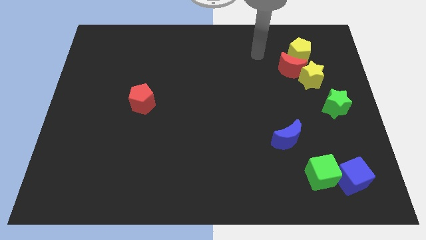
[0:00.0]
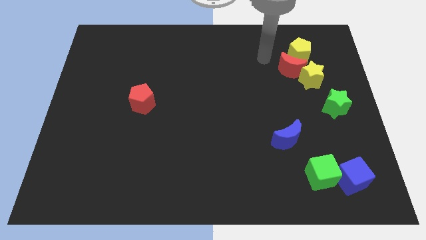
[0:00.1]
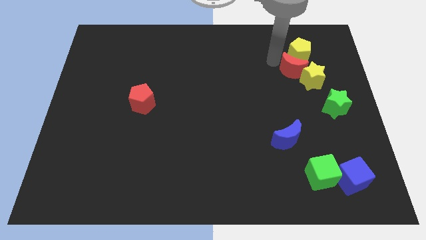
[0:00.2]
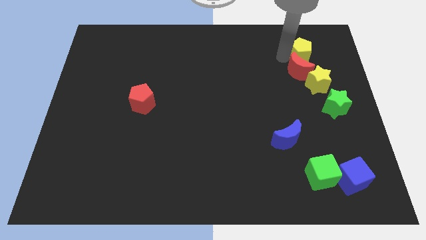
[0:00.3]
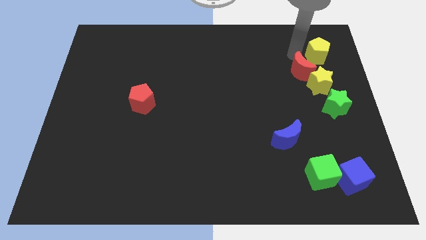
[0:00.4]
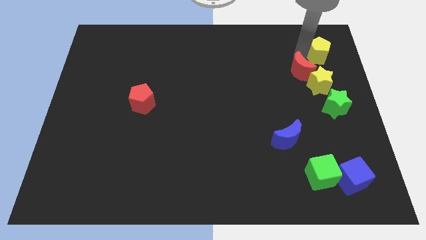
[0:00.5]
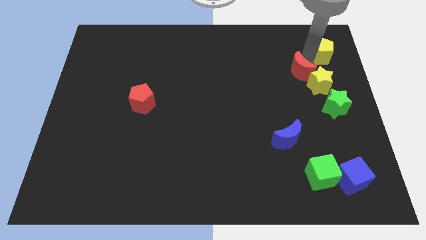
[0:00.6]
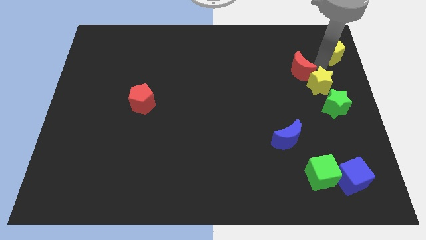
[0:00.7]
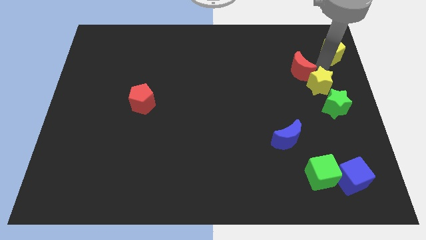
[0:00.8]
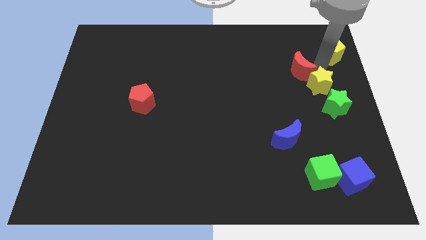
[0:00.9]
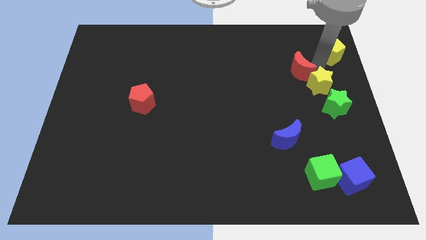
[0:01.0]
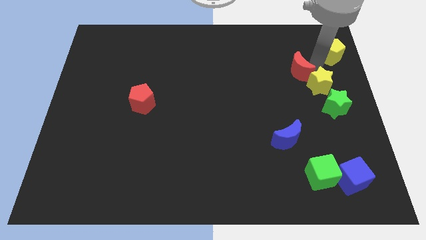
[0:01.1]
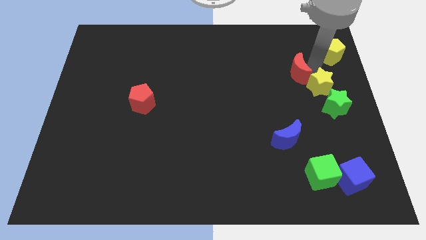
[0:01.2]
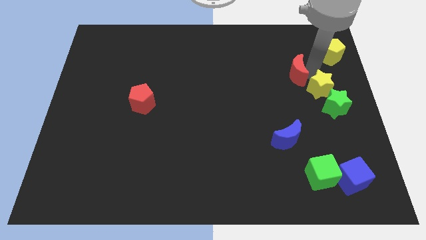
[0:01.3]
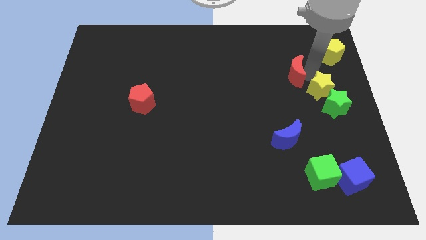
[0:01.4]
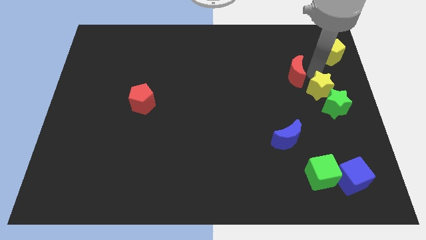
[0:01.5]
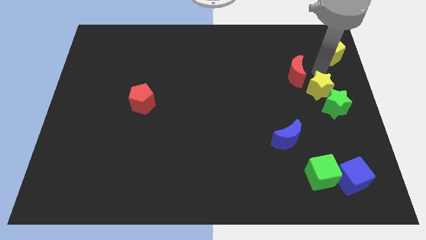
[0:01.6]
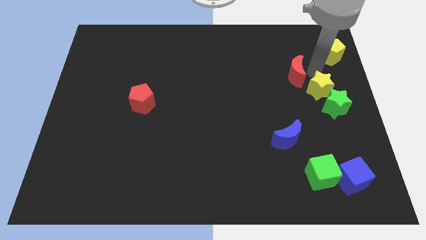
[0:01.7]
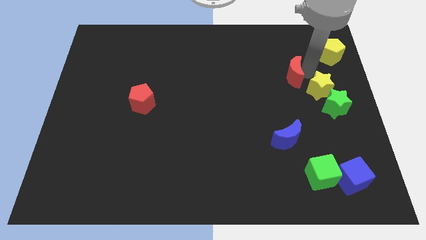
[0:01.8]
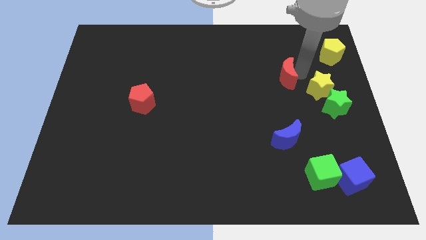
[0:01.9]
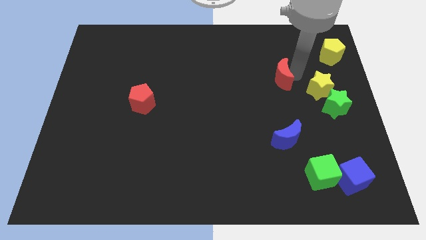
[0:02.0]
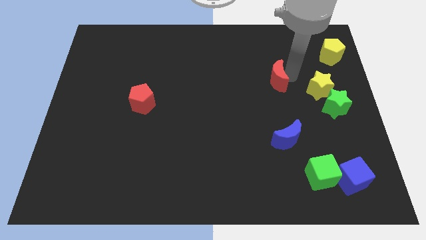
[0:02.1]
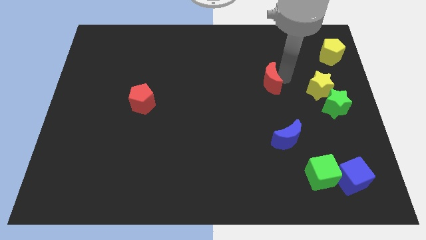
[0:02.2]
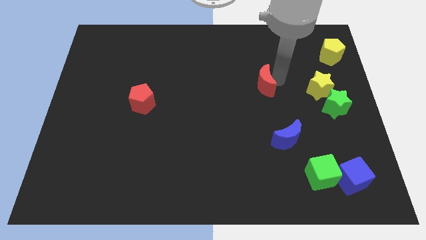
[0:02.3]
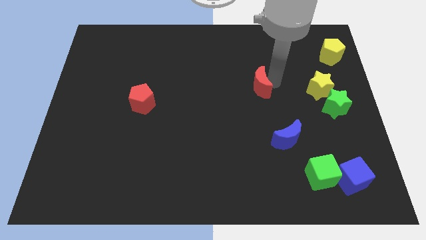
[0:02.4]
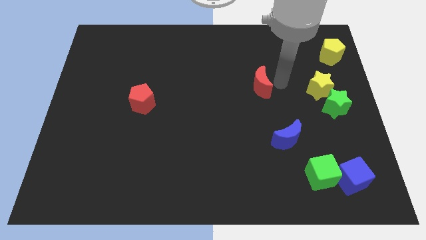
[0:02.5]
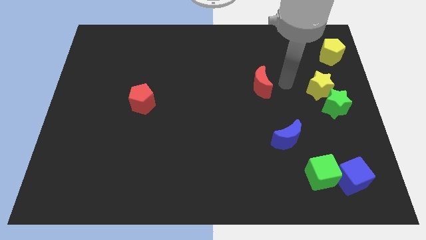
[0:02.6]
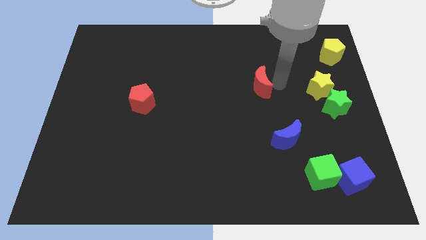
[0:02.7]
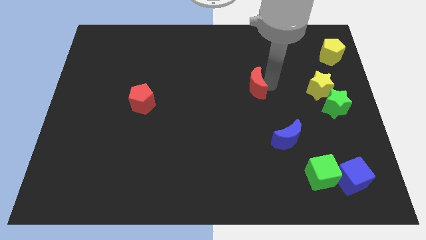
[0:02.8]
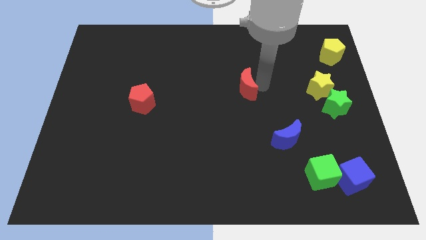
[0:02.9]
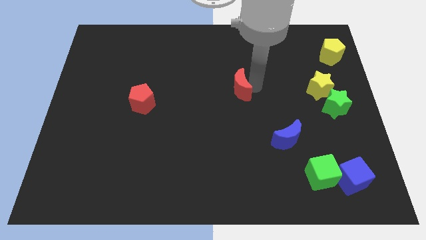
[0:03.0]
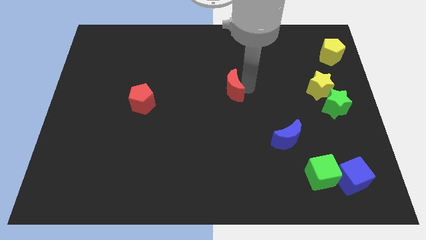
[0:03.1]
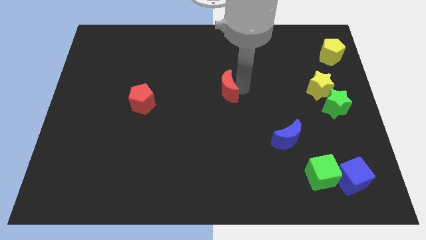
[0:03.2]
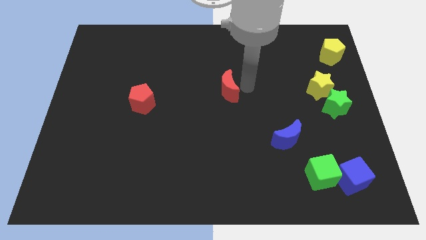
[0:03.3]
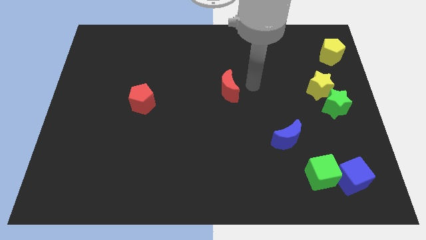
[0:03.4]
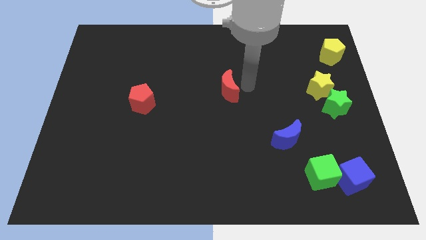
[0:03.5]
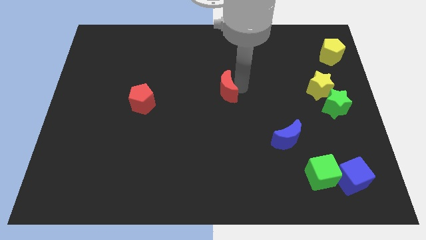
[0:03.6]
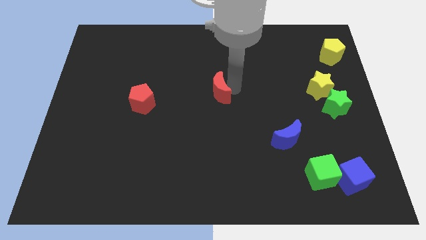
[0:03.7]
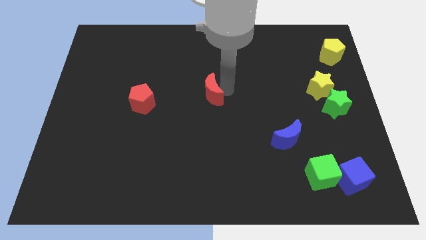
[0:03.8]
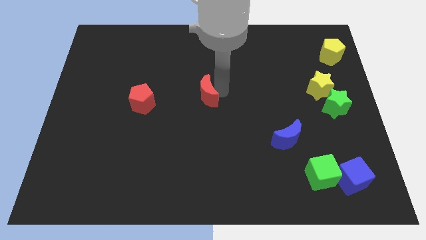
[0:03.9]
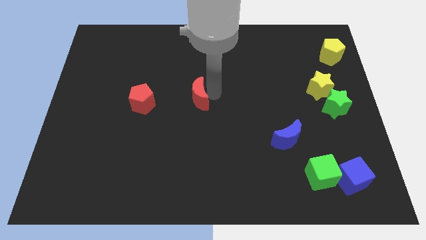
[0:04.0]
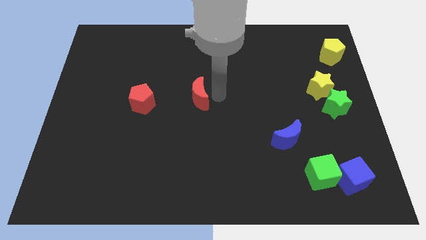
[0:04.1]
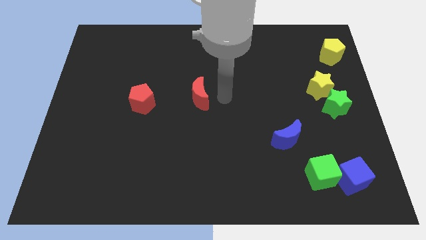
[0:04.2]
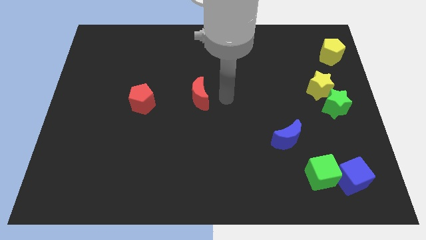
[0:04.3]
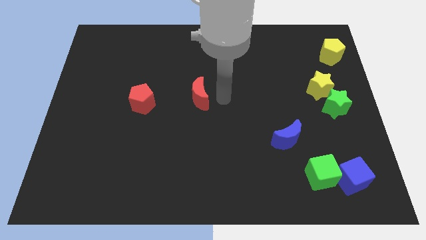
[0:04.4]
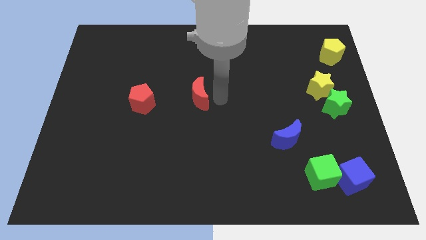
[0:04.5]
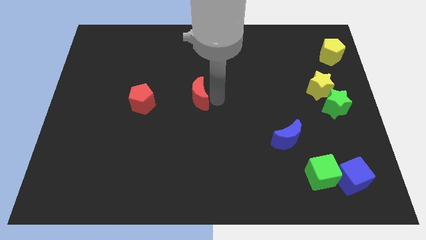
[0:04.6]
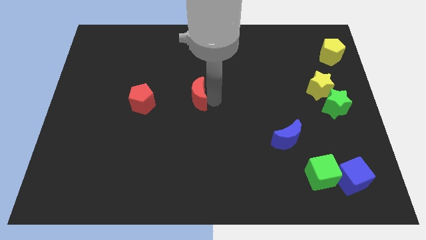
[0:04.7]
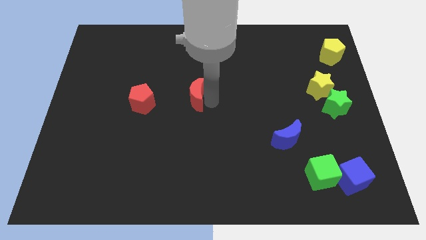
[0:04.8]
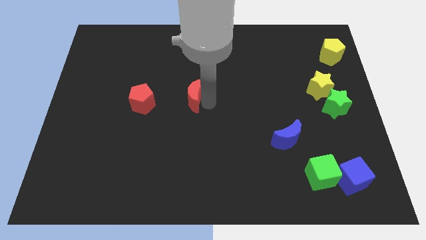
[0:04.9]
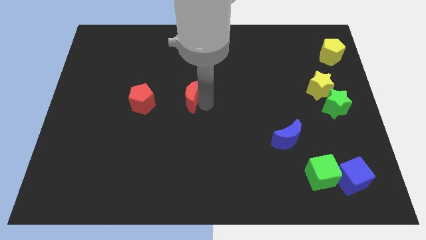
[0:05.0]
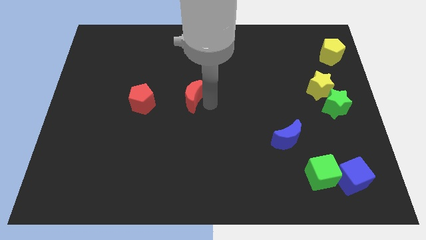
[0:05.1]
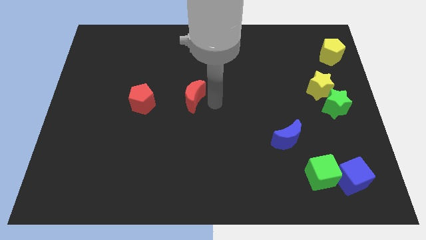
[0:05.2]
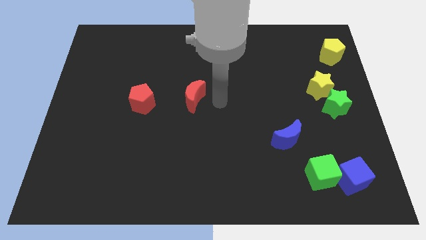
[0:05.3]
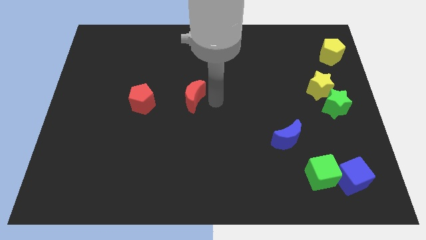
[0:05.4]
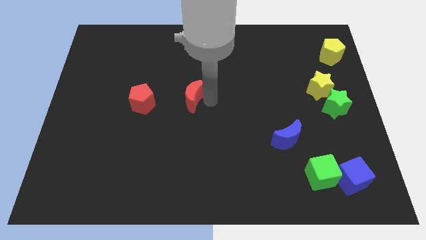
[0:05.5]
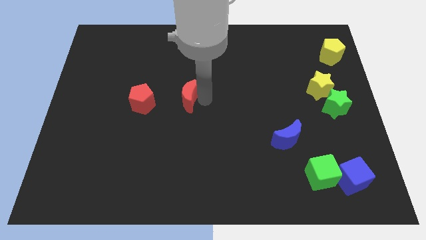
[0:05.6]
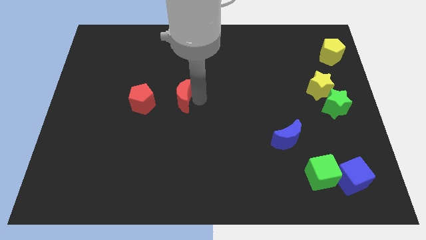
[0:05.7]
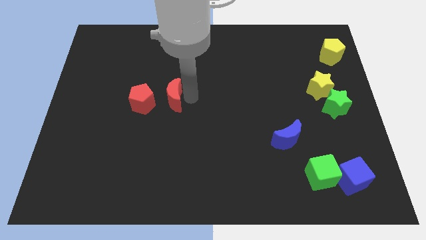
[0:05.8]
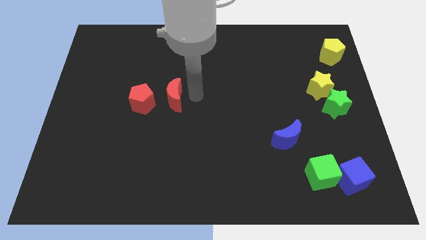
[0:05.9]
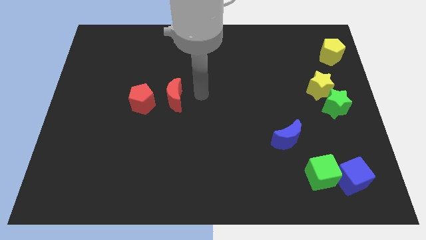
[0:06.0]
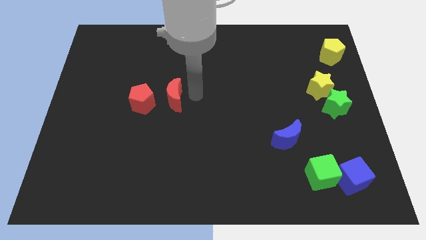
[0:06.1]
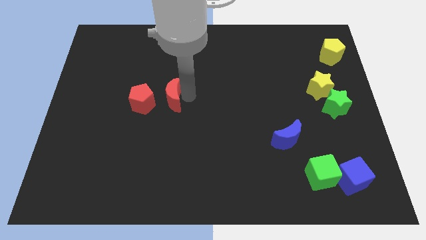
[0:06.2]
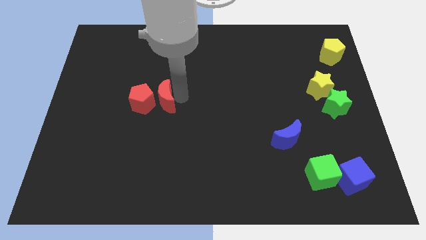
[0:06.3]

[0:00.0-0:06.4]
push the red moon to the red pentagon

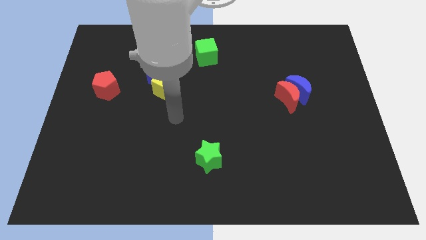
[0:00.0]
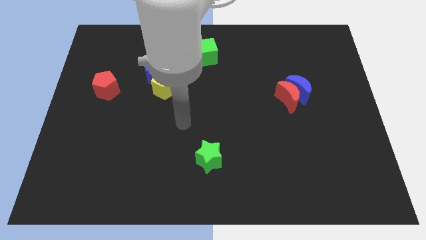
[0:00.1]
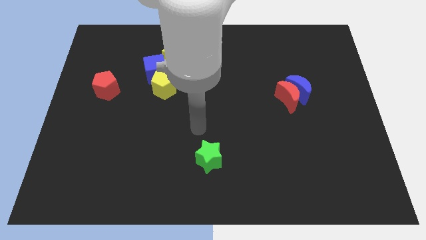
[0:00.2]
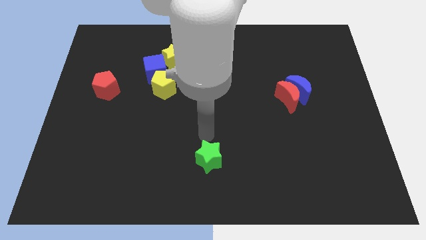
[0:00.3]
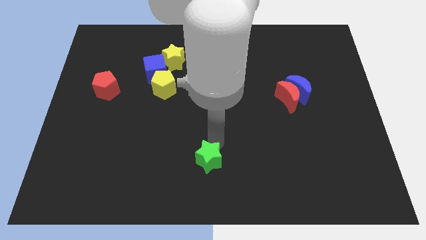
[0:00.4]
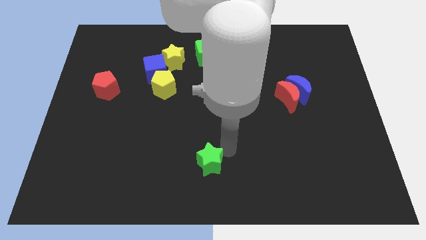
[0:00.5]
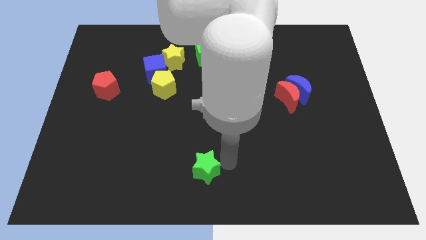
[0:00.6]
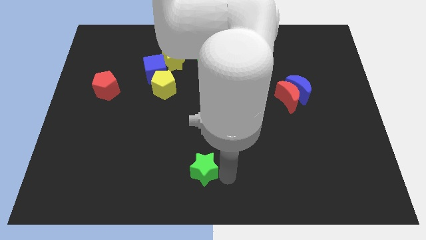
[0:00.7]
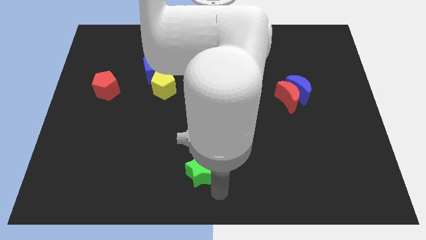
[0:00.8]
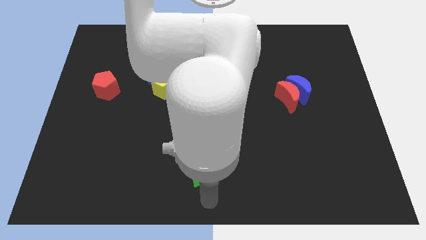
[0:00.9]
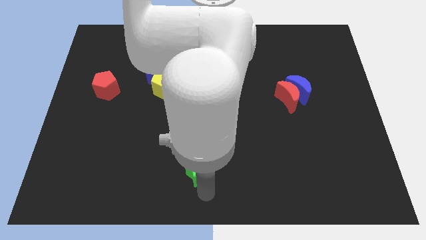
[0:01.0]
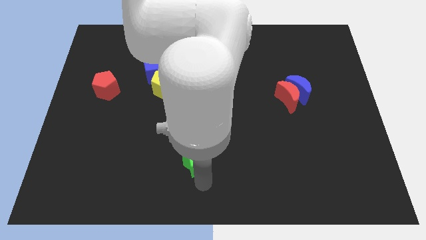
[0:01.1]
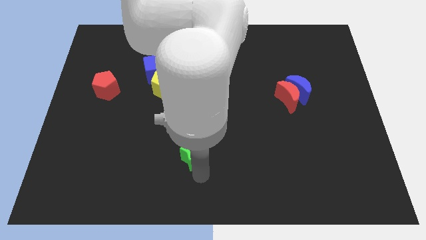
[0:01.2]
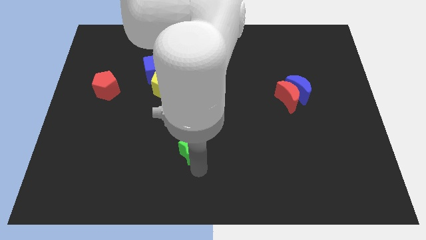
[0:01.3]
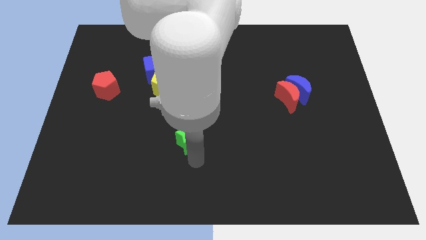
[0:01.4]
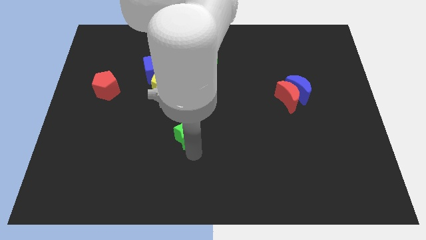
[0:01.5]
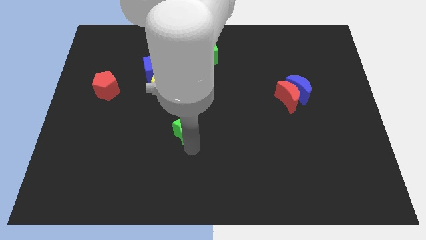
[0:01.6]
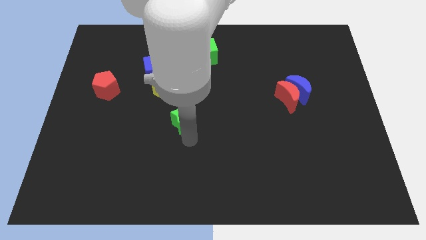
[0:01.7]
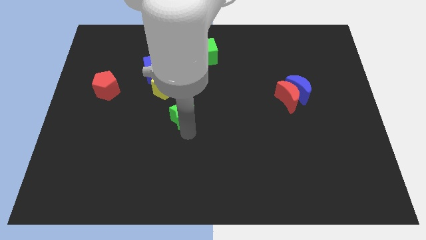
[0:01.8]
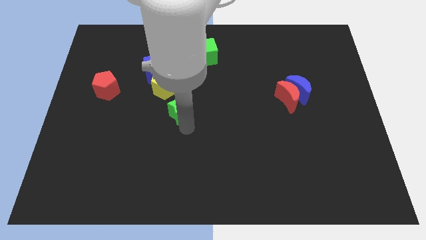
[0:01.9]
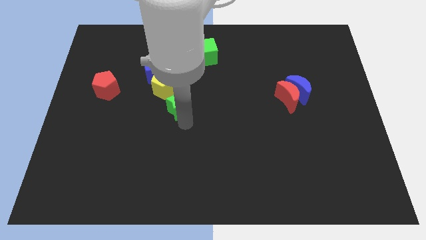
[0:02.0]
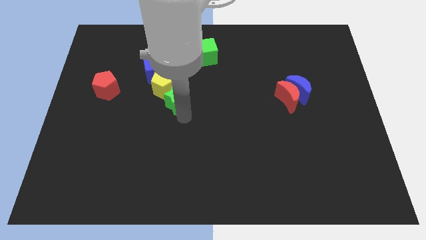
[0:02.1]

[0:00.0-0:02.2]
move the green star to the yellow pentagon
